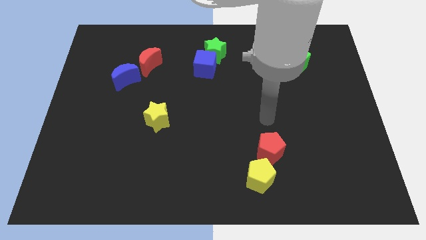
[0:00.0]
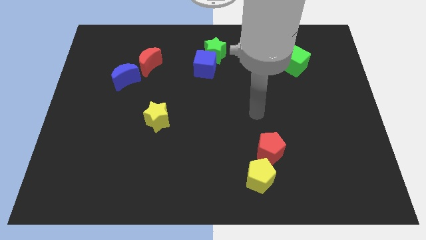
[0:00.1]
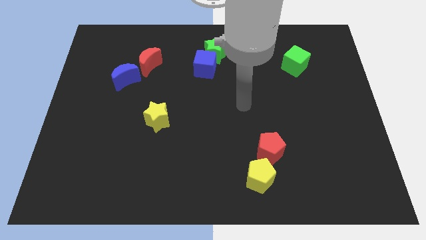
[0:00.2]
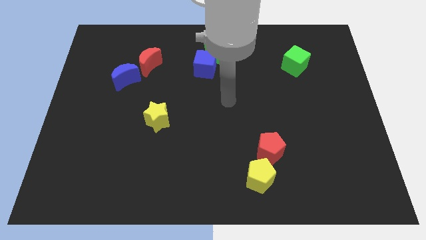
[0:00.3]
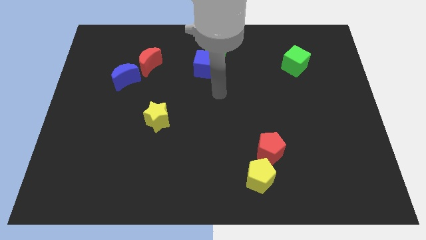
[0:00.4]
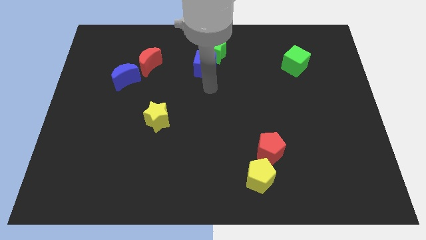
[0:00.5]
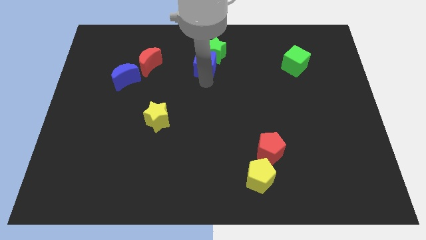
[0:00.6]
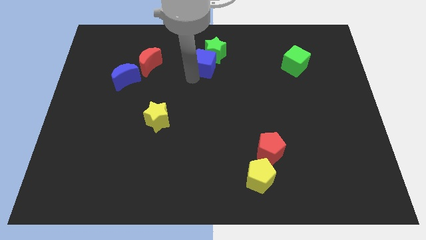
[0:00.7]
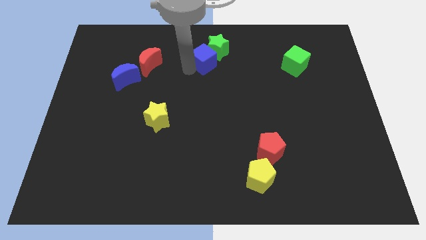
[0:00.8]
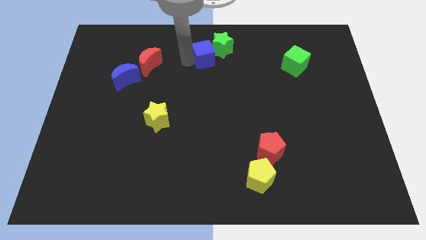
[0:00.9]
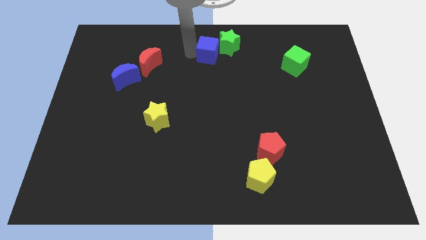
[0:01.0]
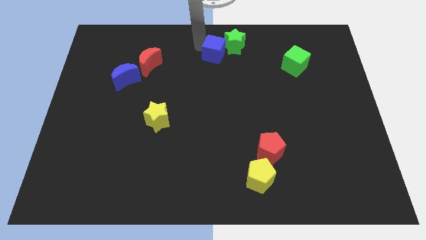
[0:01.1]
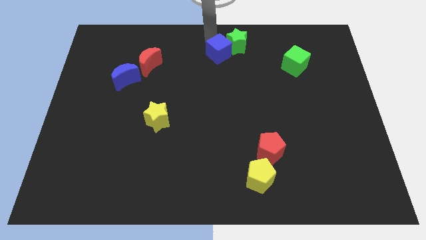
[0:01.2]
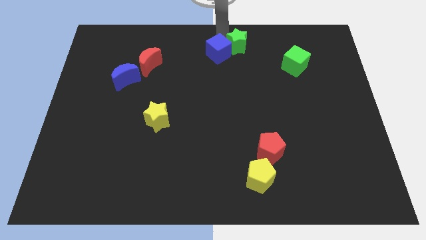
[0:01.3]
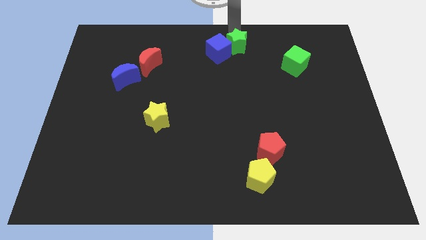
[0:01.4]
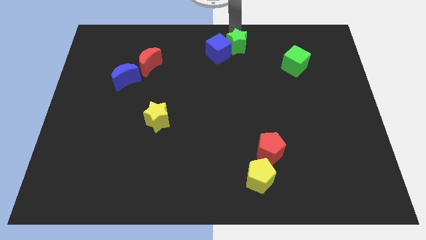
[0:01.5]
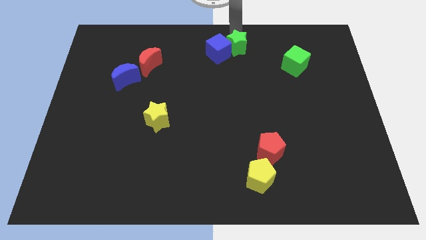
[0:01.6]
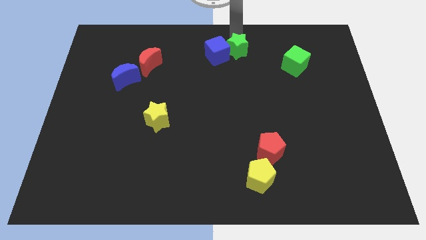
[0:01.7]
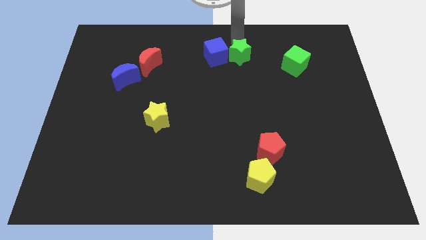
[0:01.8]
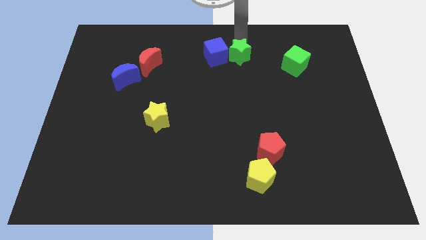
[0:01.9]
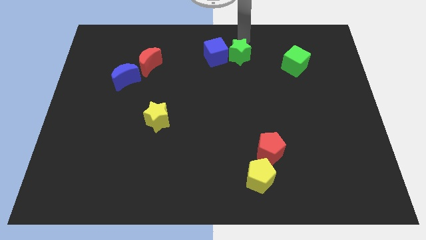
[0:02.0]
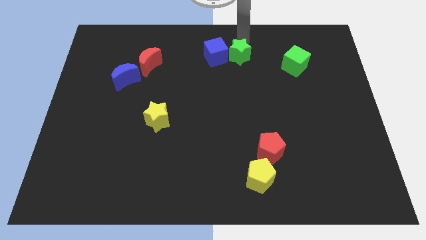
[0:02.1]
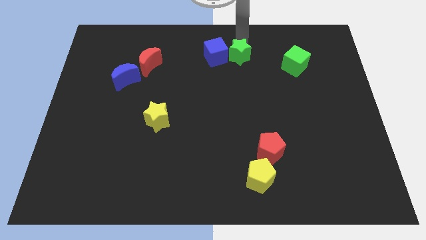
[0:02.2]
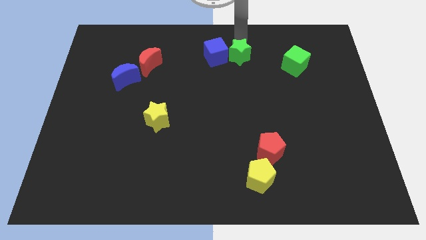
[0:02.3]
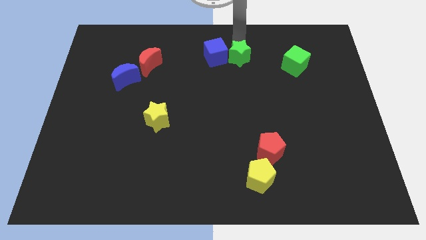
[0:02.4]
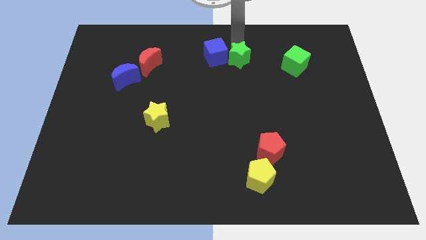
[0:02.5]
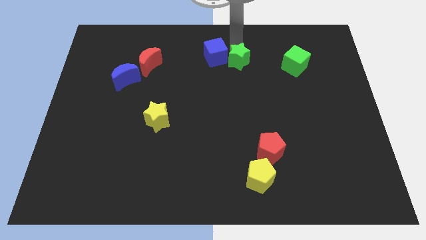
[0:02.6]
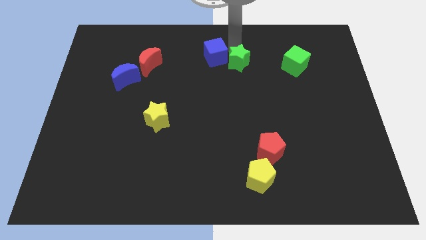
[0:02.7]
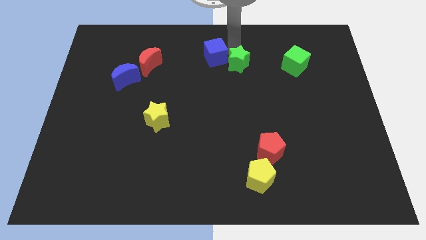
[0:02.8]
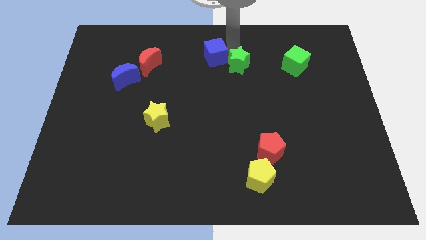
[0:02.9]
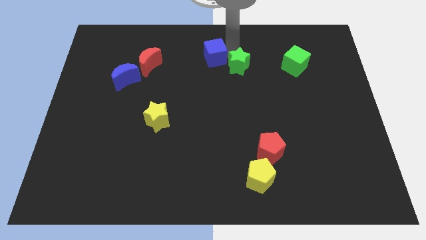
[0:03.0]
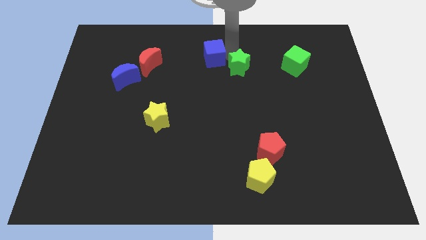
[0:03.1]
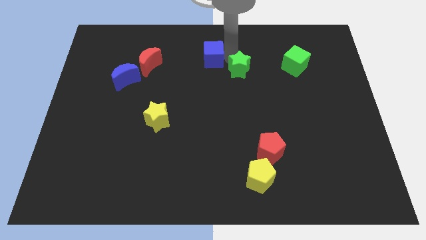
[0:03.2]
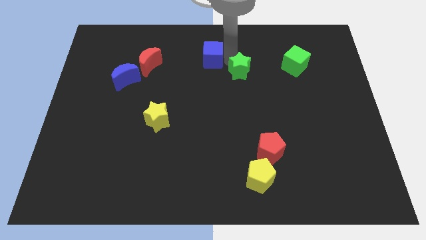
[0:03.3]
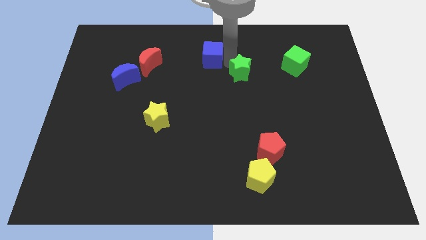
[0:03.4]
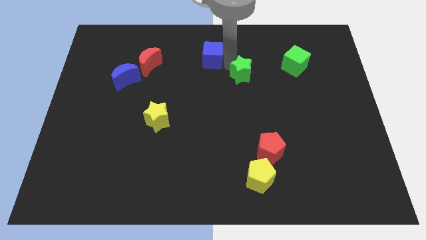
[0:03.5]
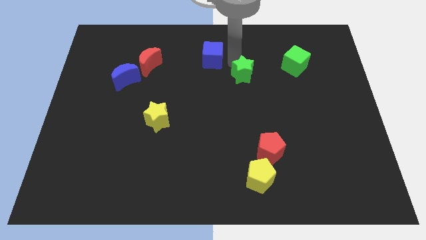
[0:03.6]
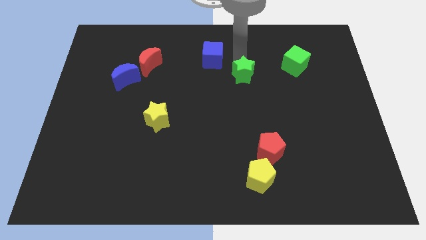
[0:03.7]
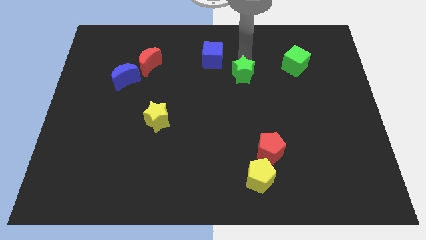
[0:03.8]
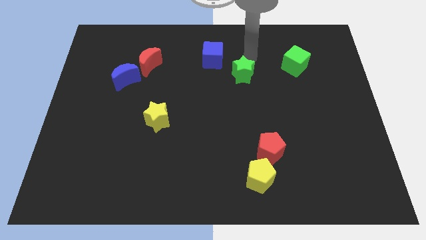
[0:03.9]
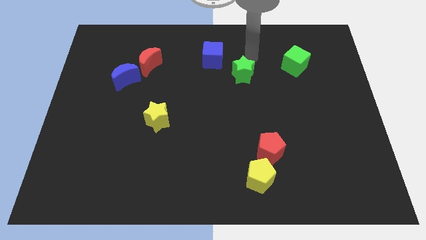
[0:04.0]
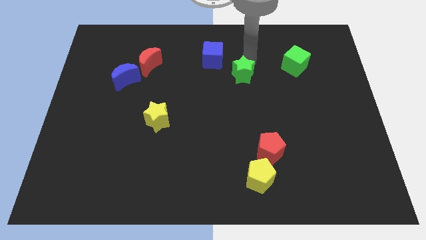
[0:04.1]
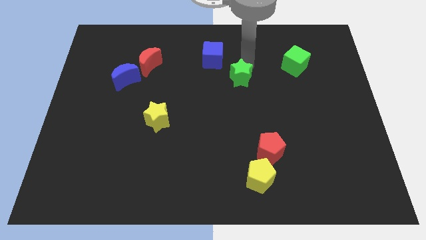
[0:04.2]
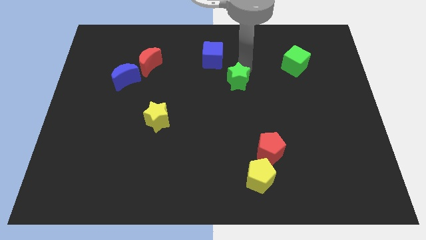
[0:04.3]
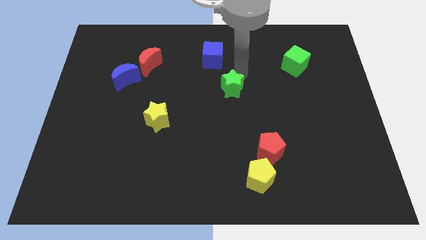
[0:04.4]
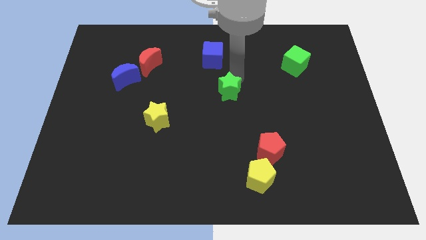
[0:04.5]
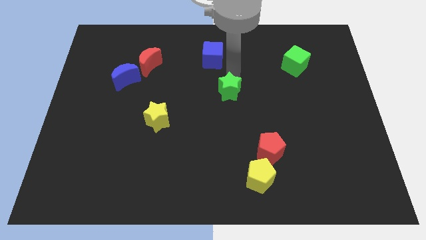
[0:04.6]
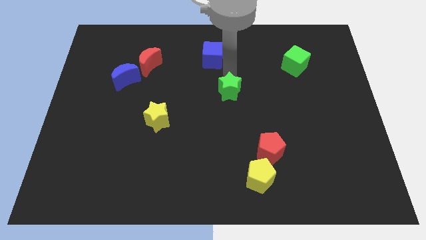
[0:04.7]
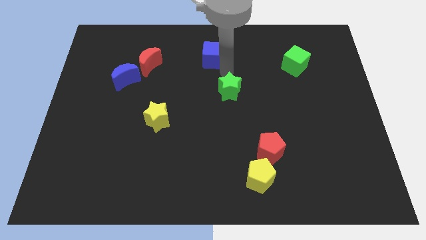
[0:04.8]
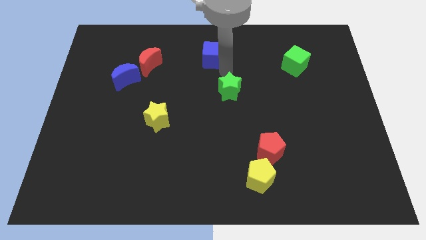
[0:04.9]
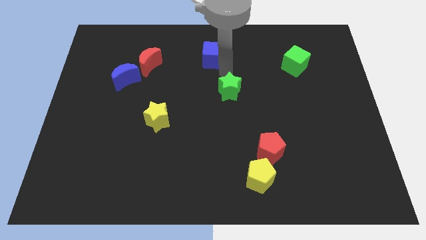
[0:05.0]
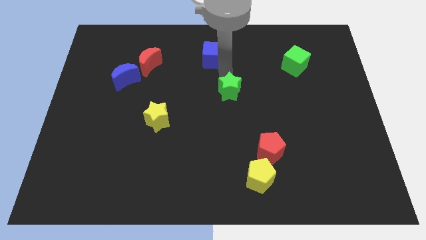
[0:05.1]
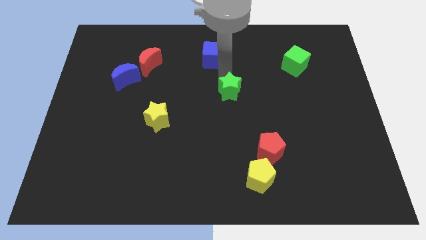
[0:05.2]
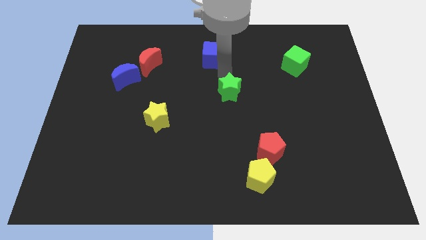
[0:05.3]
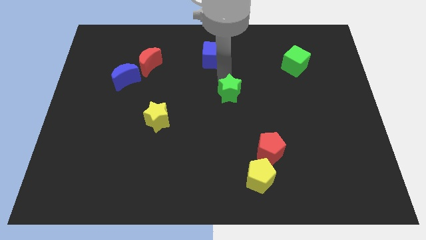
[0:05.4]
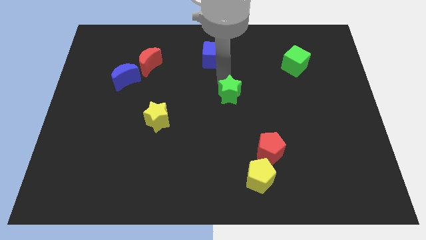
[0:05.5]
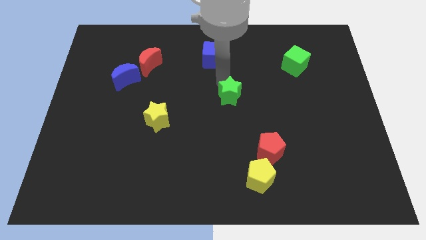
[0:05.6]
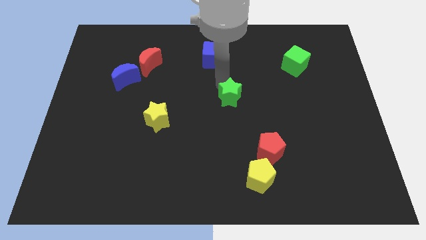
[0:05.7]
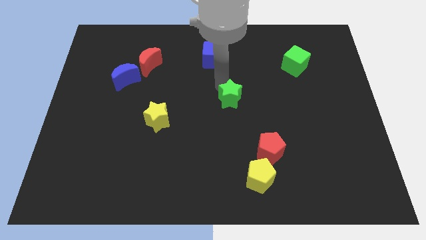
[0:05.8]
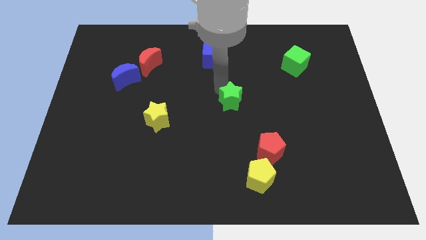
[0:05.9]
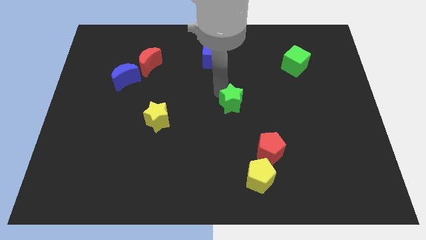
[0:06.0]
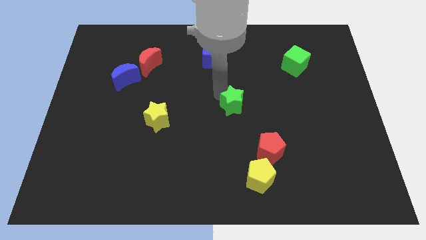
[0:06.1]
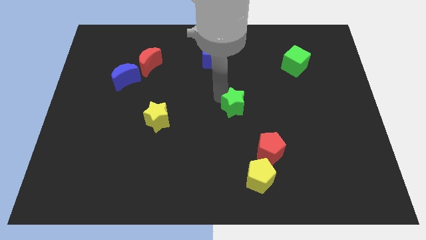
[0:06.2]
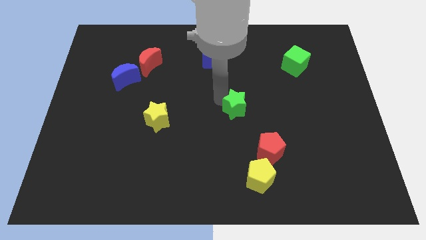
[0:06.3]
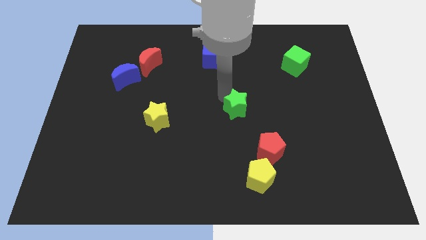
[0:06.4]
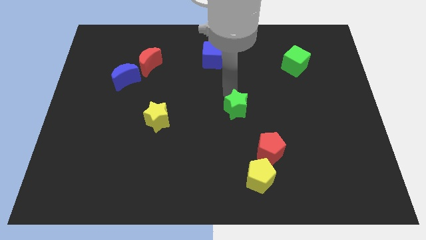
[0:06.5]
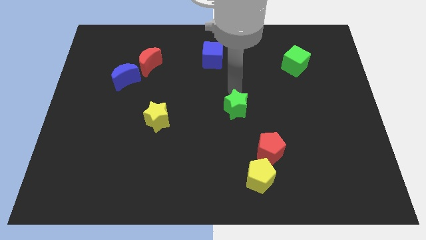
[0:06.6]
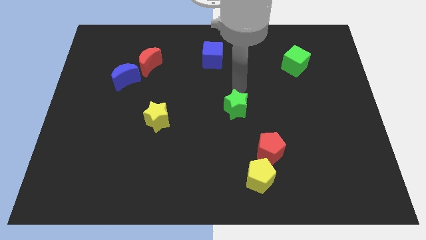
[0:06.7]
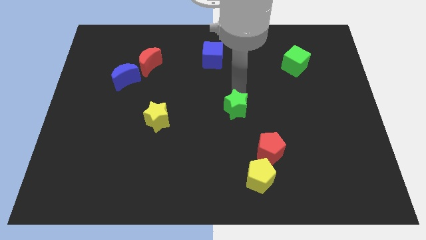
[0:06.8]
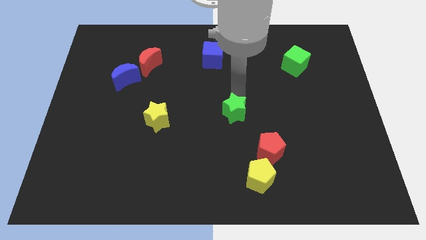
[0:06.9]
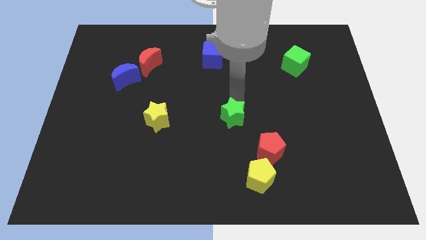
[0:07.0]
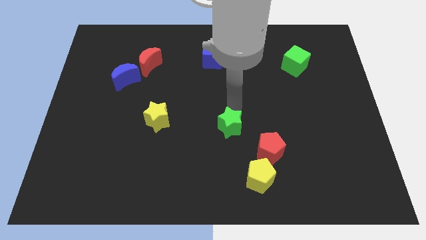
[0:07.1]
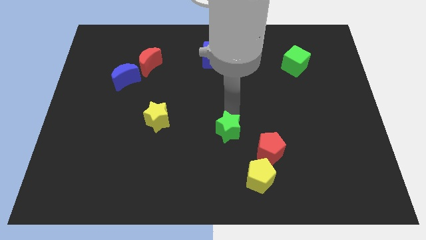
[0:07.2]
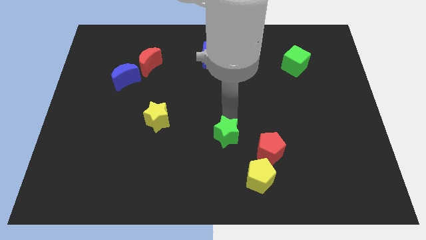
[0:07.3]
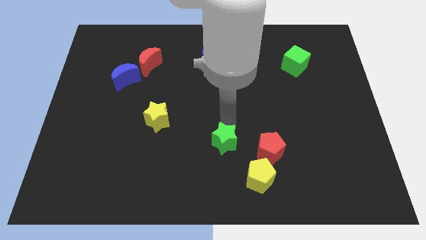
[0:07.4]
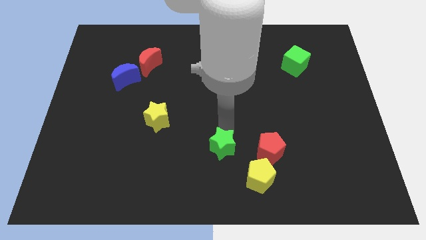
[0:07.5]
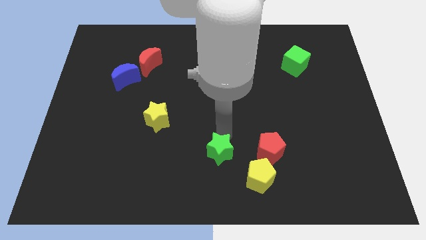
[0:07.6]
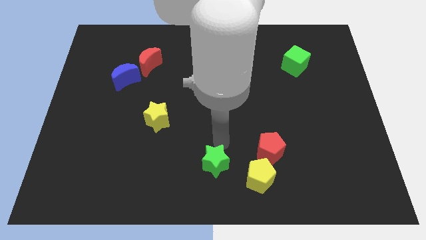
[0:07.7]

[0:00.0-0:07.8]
put the green star to the bottom side

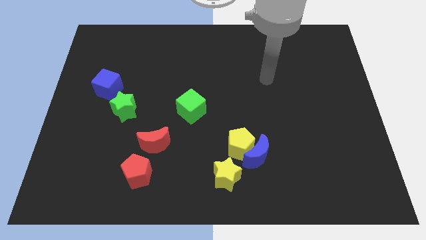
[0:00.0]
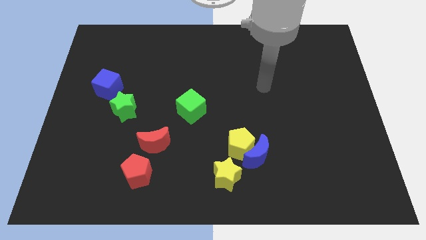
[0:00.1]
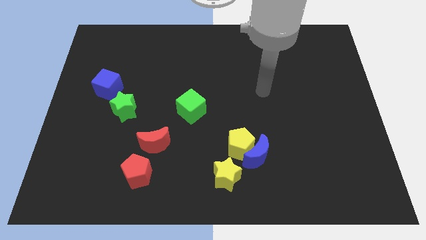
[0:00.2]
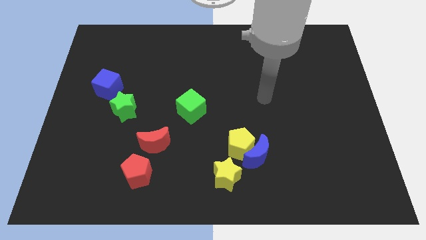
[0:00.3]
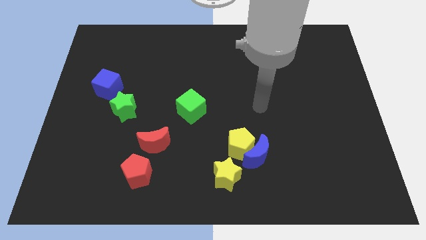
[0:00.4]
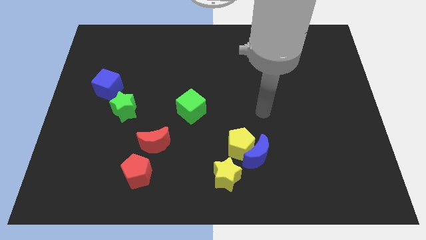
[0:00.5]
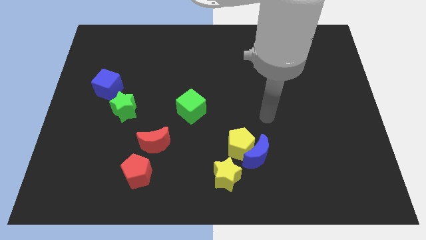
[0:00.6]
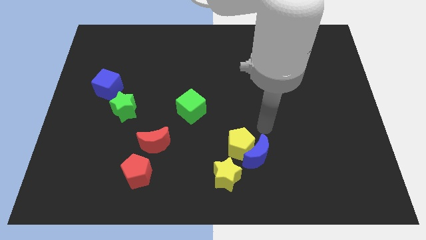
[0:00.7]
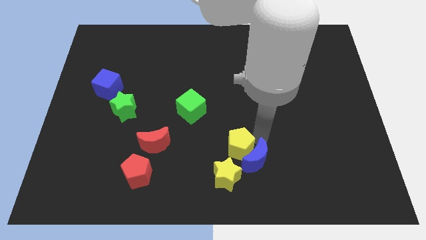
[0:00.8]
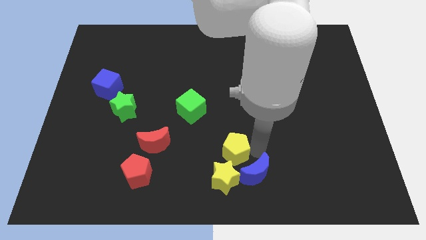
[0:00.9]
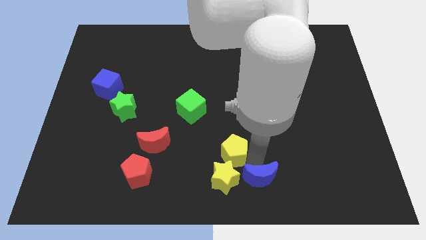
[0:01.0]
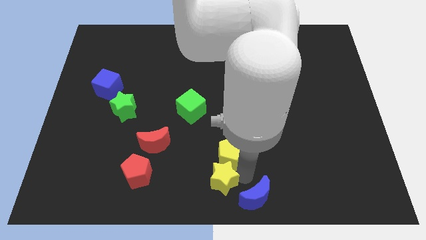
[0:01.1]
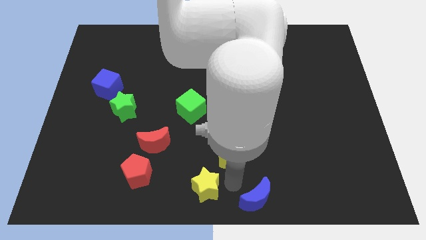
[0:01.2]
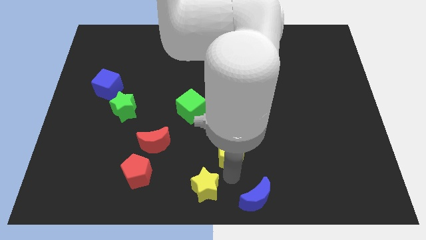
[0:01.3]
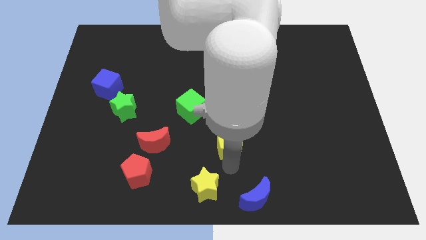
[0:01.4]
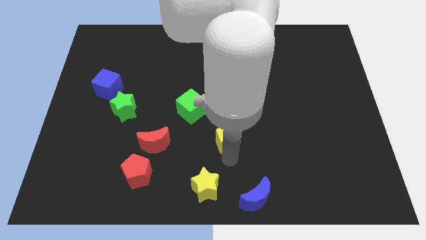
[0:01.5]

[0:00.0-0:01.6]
push the yellow pentagon to the middle
